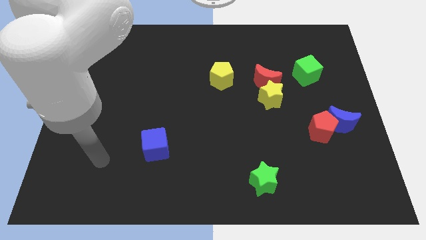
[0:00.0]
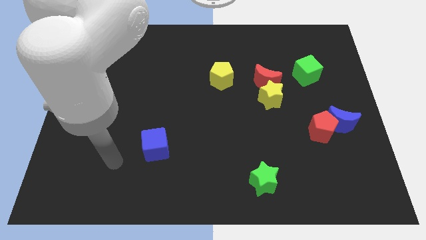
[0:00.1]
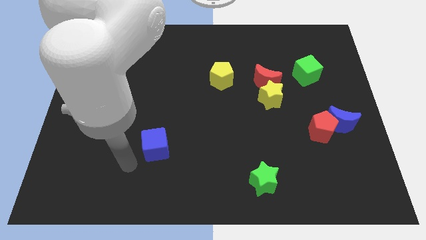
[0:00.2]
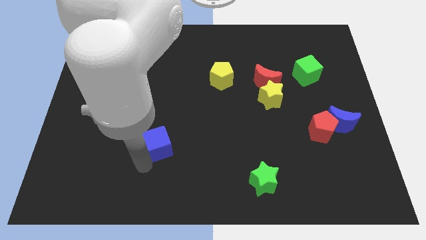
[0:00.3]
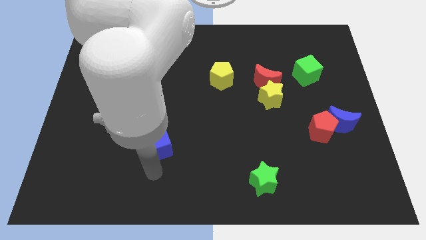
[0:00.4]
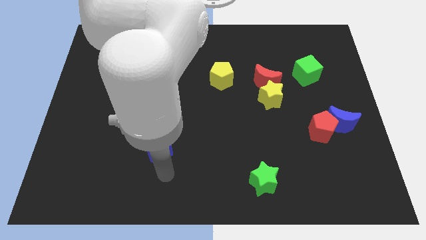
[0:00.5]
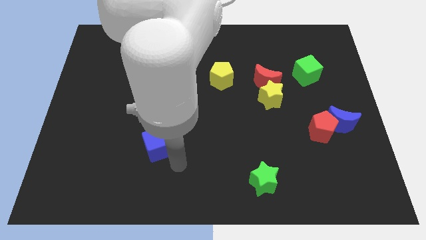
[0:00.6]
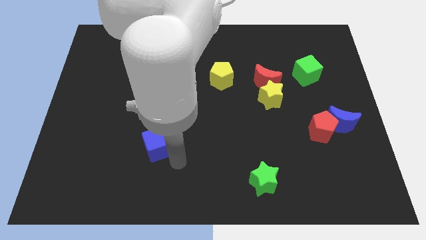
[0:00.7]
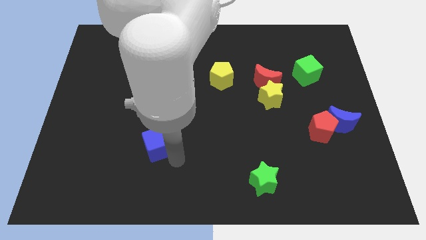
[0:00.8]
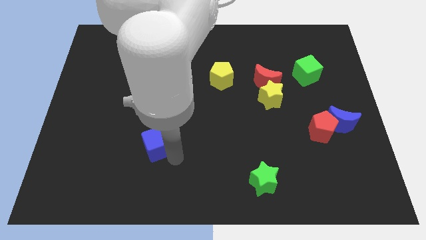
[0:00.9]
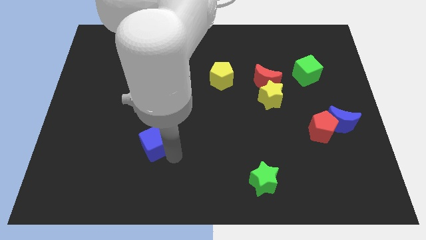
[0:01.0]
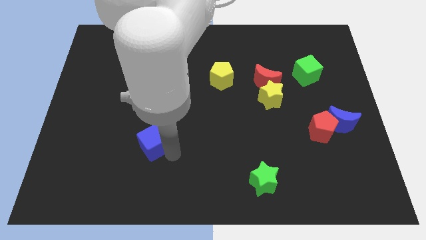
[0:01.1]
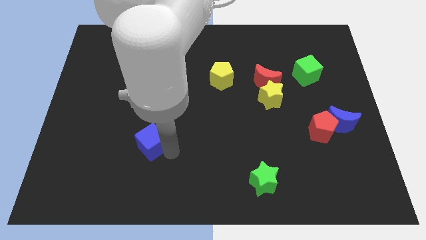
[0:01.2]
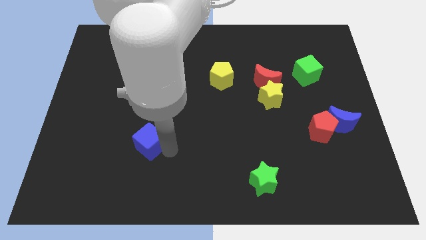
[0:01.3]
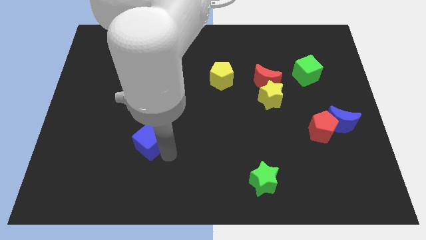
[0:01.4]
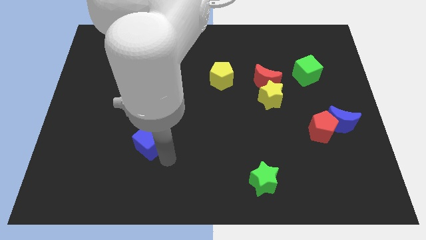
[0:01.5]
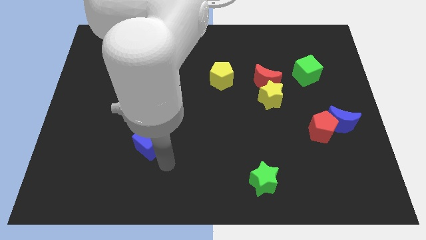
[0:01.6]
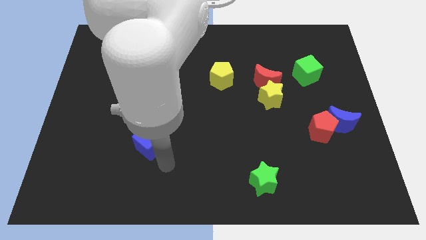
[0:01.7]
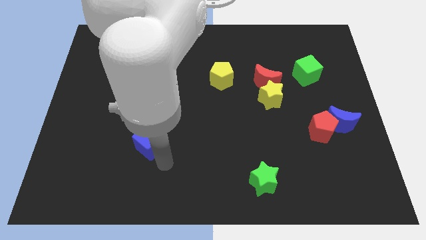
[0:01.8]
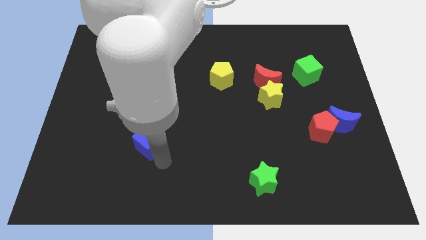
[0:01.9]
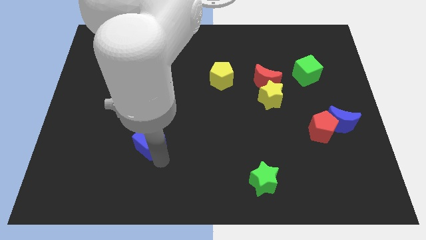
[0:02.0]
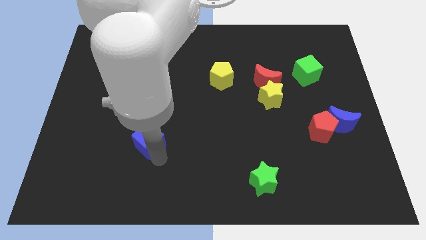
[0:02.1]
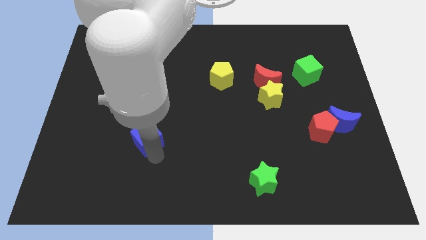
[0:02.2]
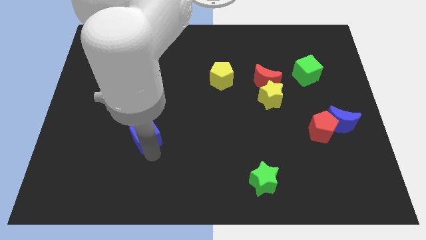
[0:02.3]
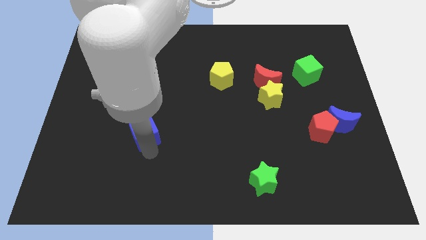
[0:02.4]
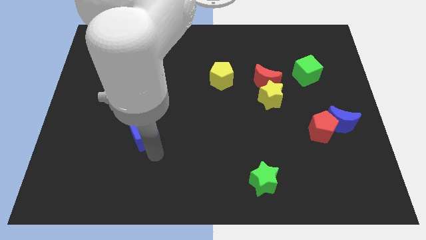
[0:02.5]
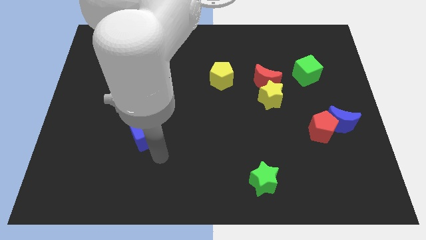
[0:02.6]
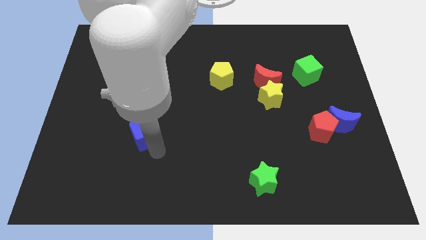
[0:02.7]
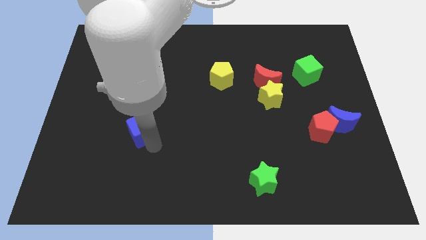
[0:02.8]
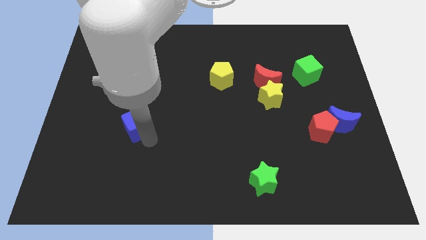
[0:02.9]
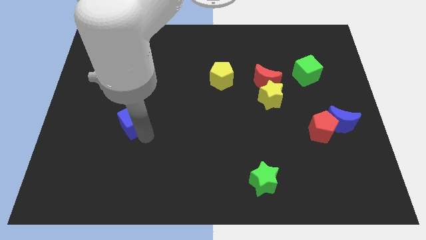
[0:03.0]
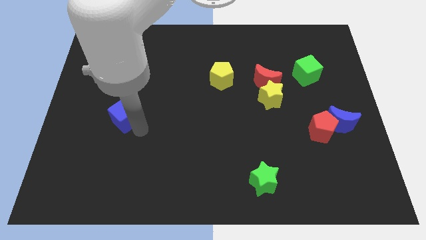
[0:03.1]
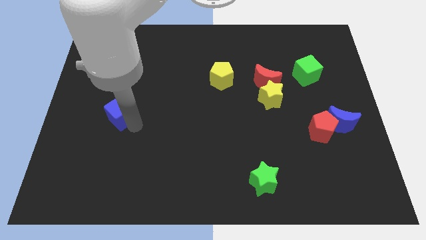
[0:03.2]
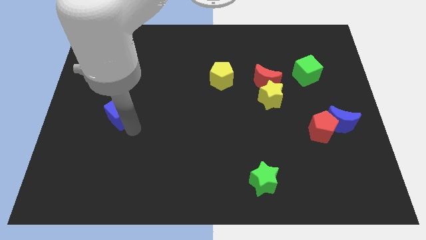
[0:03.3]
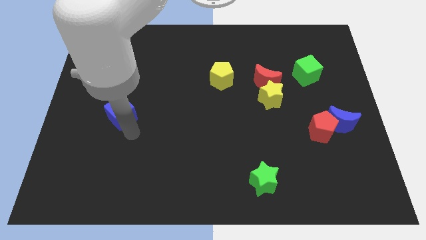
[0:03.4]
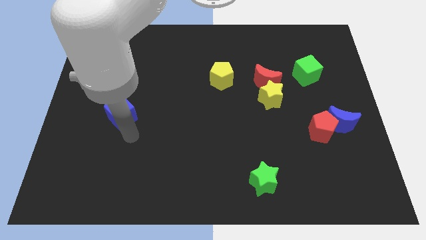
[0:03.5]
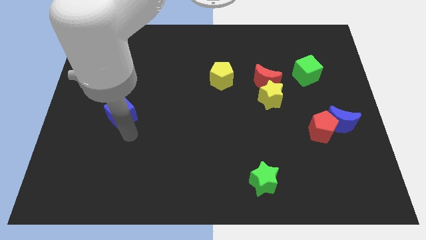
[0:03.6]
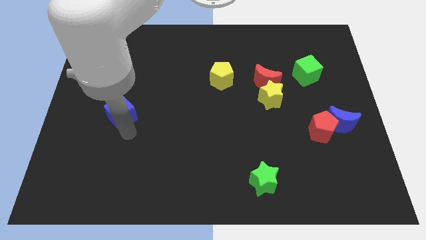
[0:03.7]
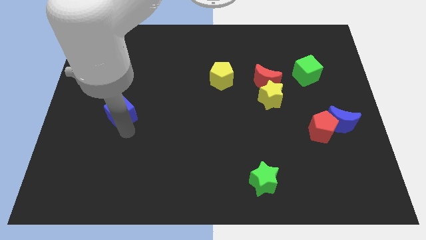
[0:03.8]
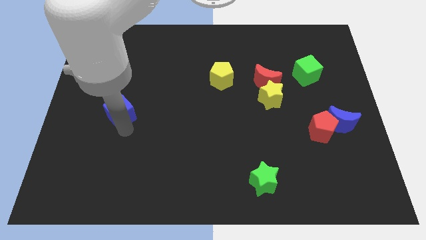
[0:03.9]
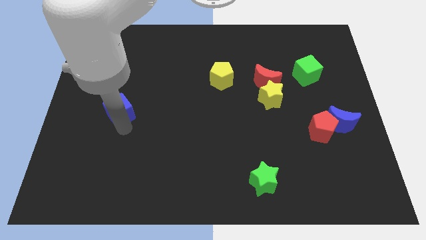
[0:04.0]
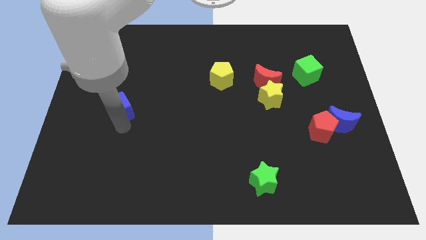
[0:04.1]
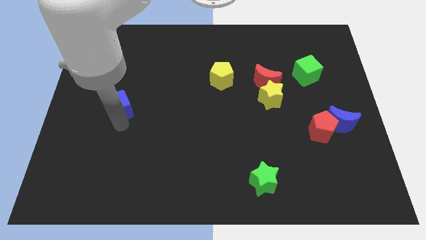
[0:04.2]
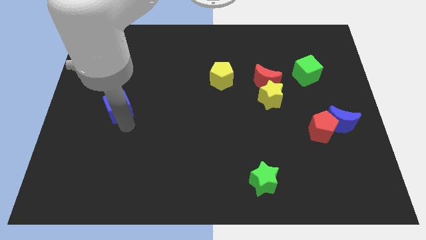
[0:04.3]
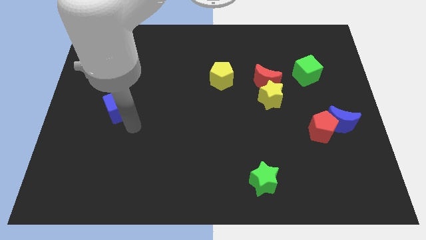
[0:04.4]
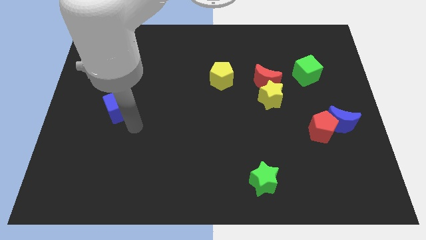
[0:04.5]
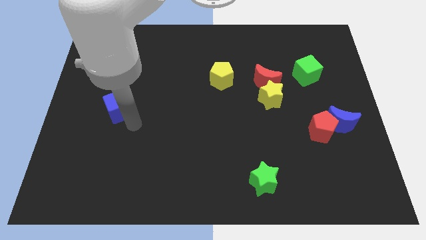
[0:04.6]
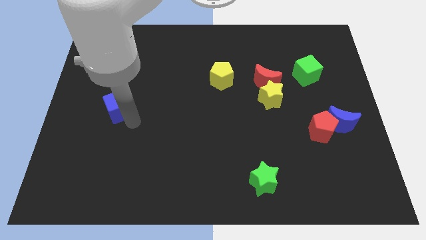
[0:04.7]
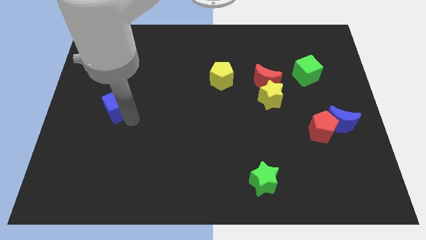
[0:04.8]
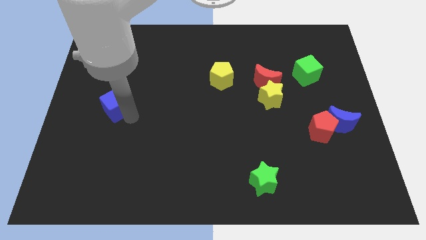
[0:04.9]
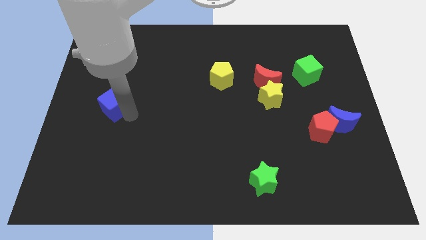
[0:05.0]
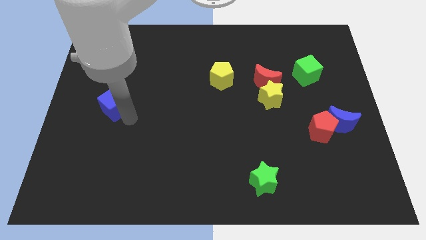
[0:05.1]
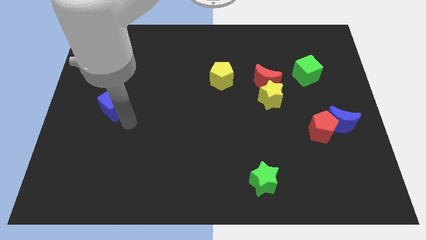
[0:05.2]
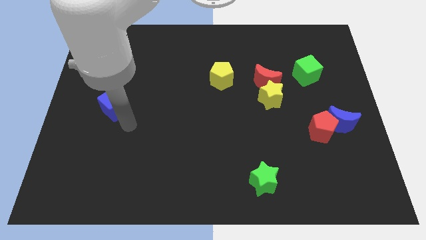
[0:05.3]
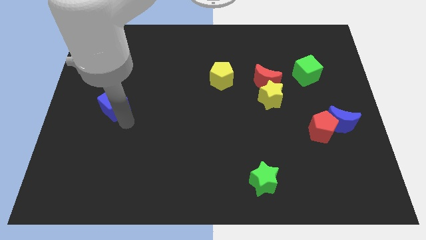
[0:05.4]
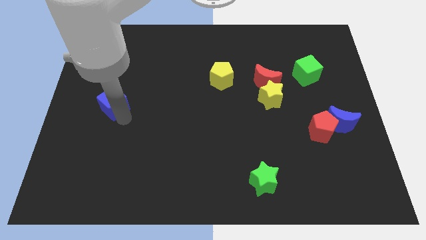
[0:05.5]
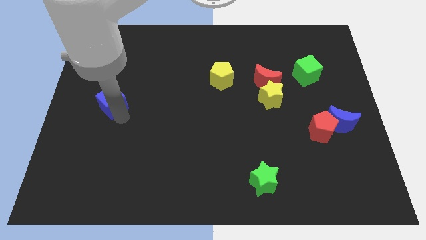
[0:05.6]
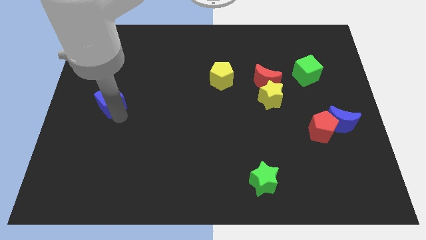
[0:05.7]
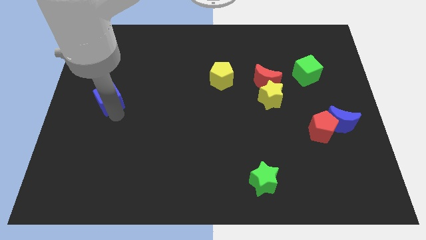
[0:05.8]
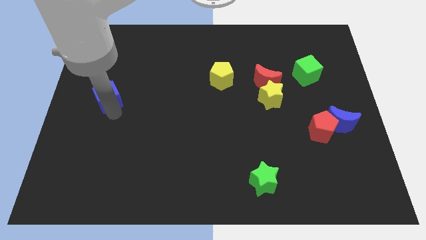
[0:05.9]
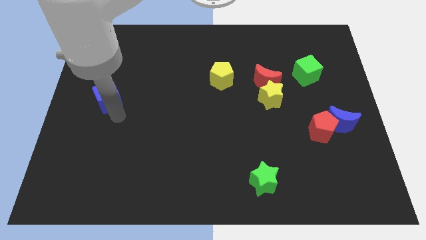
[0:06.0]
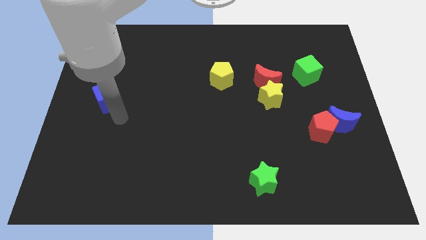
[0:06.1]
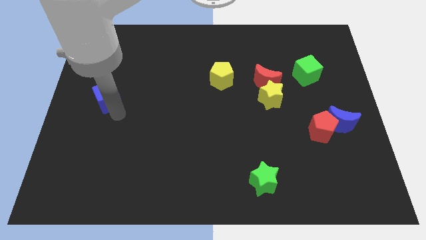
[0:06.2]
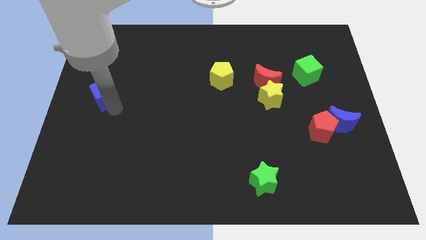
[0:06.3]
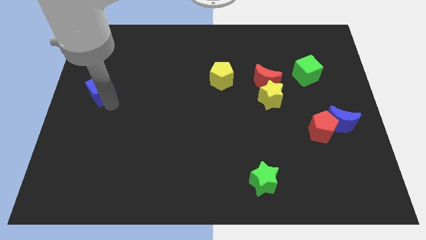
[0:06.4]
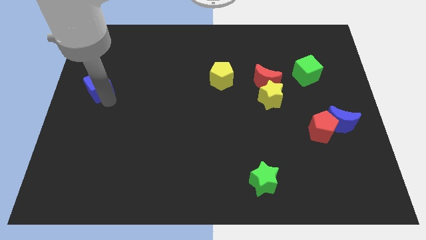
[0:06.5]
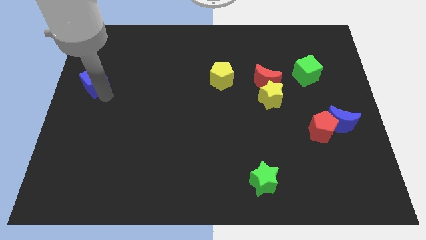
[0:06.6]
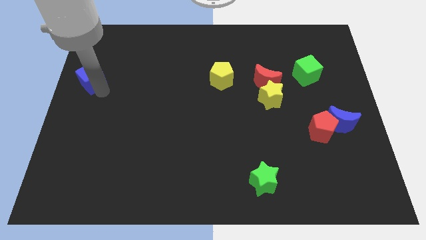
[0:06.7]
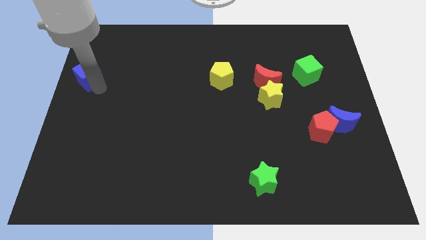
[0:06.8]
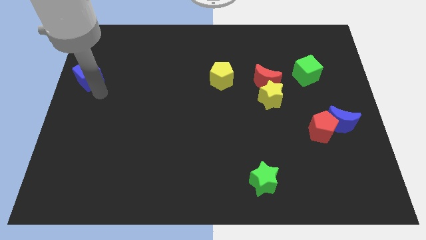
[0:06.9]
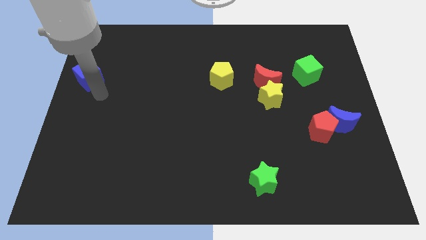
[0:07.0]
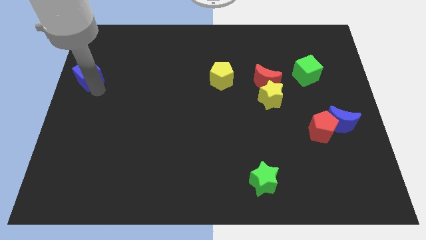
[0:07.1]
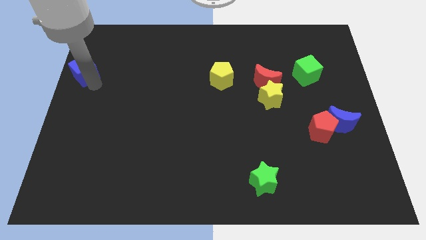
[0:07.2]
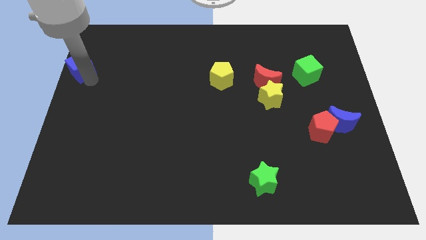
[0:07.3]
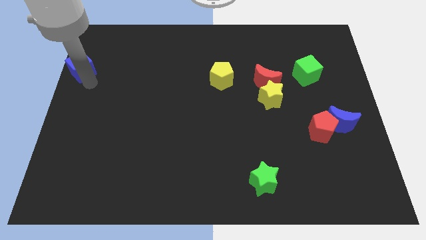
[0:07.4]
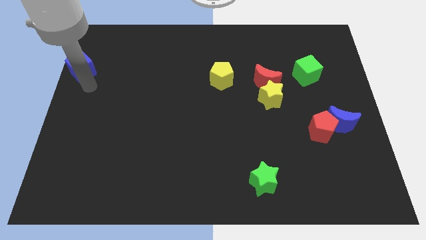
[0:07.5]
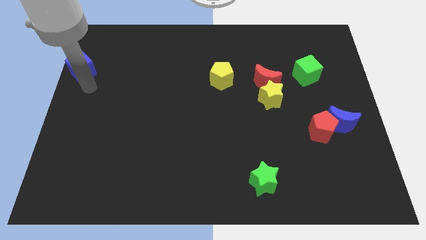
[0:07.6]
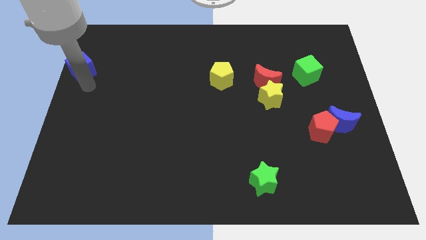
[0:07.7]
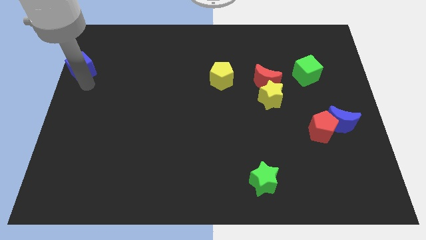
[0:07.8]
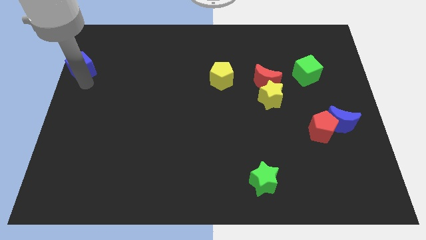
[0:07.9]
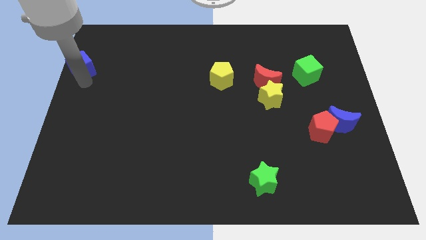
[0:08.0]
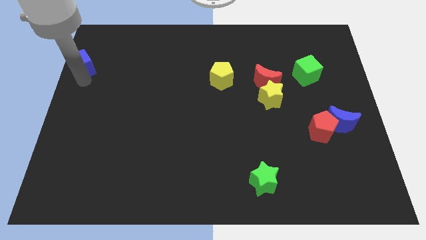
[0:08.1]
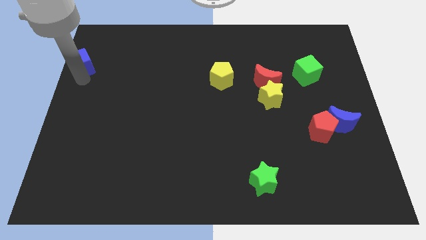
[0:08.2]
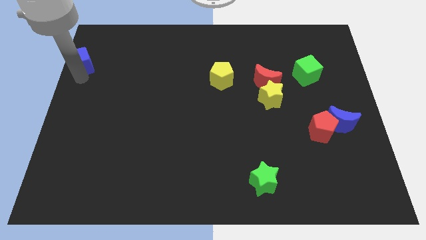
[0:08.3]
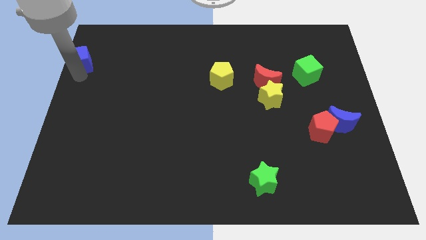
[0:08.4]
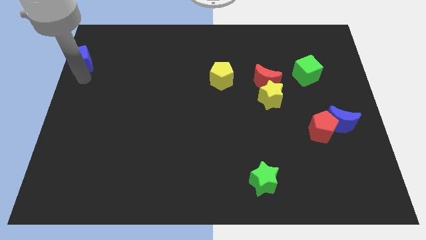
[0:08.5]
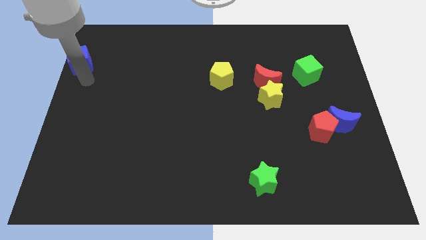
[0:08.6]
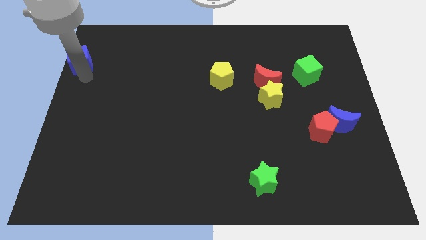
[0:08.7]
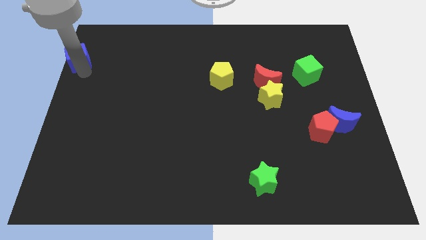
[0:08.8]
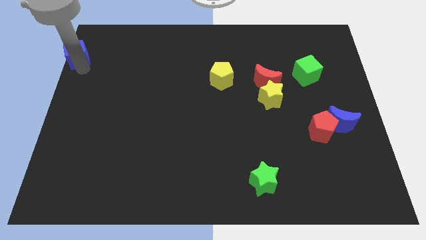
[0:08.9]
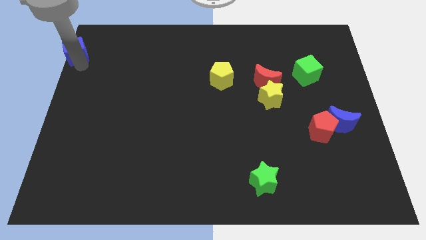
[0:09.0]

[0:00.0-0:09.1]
put the blue cube to the top left corner
